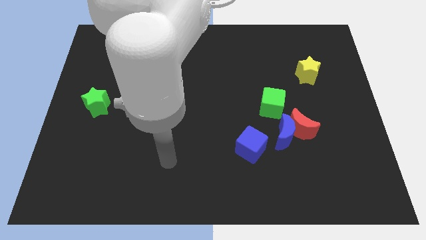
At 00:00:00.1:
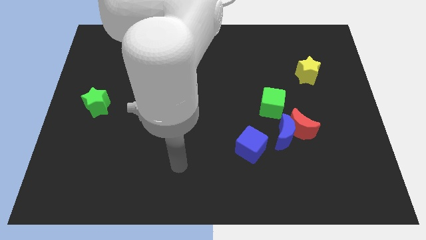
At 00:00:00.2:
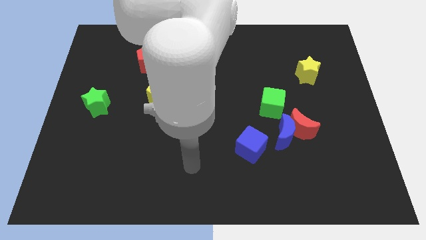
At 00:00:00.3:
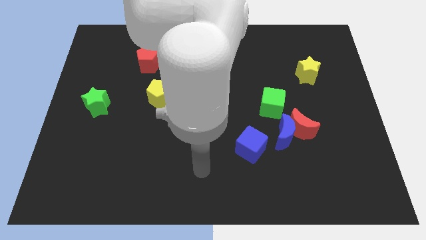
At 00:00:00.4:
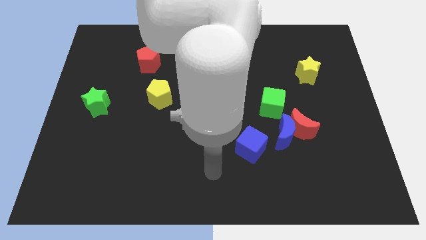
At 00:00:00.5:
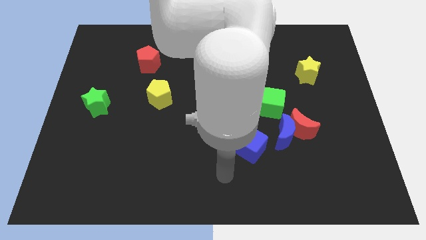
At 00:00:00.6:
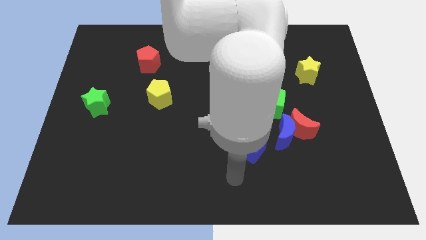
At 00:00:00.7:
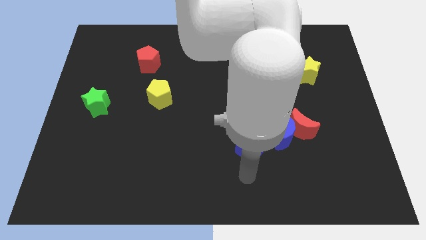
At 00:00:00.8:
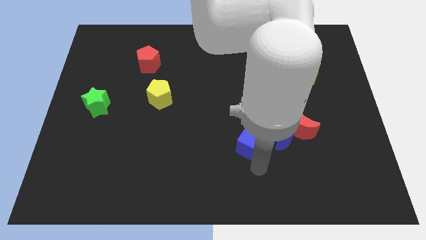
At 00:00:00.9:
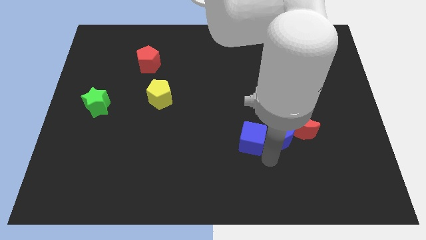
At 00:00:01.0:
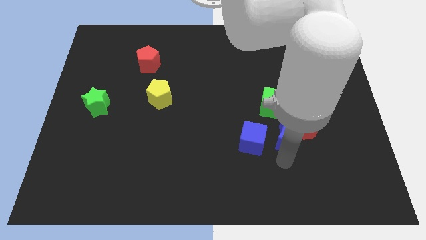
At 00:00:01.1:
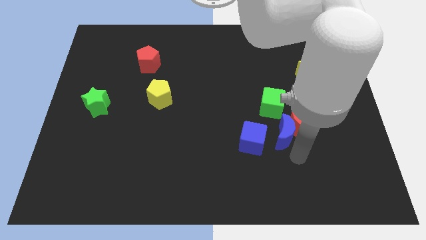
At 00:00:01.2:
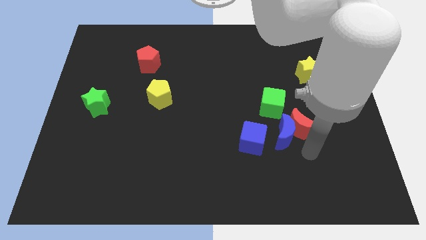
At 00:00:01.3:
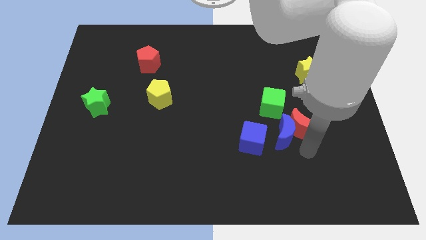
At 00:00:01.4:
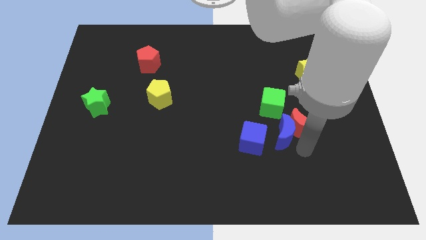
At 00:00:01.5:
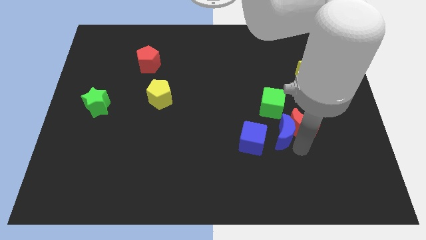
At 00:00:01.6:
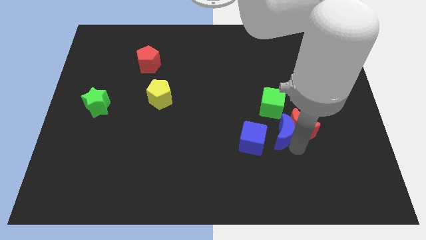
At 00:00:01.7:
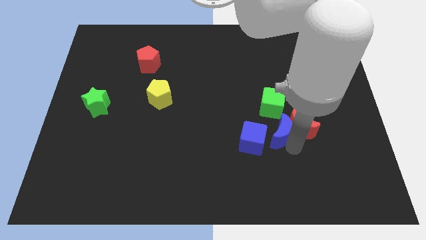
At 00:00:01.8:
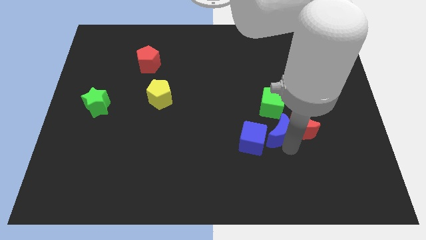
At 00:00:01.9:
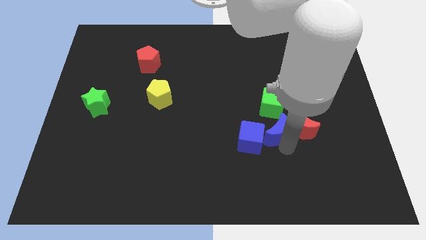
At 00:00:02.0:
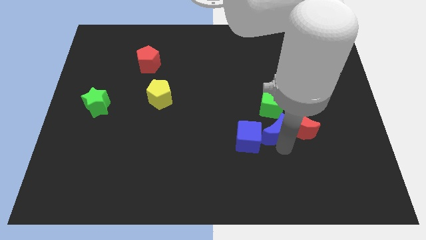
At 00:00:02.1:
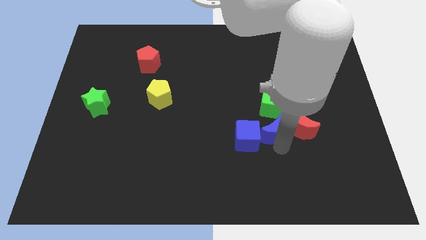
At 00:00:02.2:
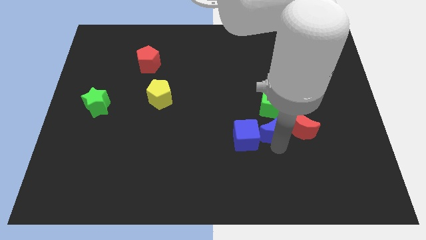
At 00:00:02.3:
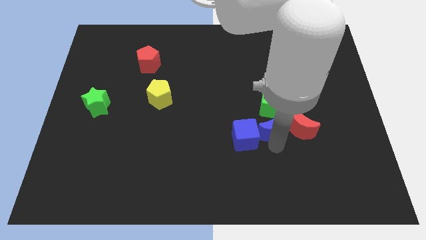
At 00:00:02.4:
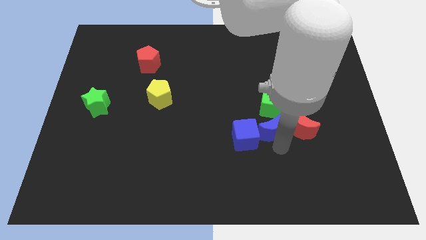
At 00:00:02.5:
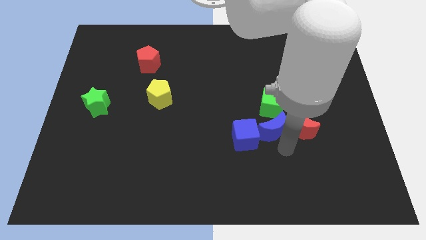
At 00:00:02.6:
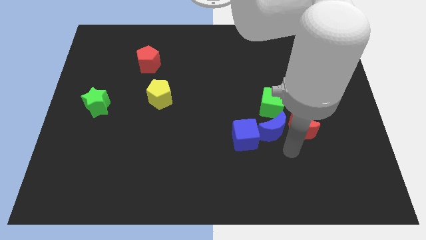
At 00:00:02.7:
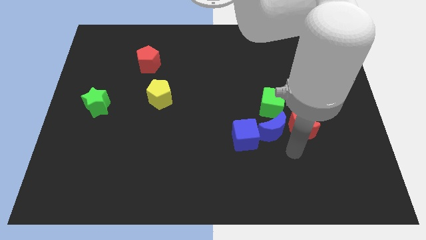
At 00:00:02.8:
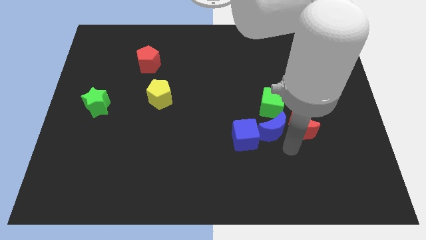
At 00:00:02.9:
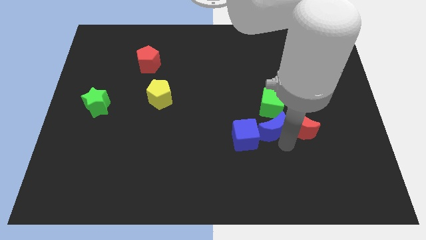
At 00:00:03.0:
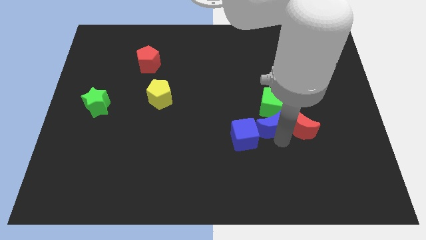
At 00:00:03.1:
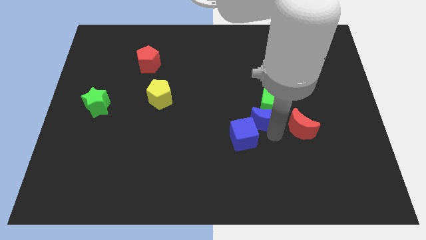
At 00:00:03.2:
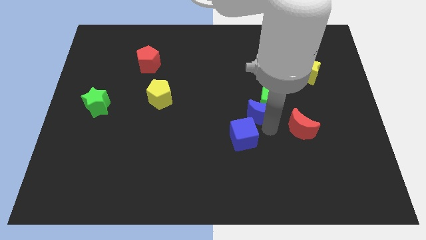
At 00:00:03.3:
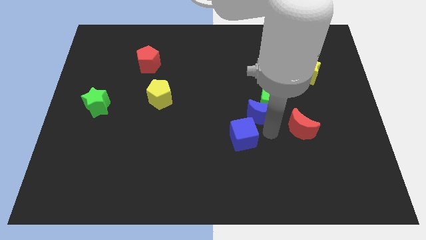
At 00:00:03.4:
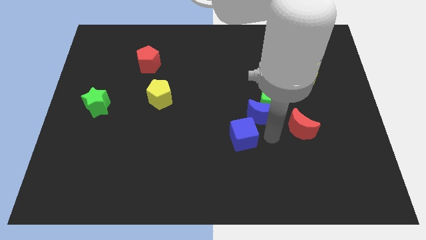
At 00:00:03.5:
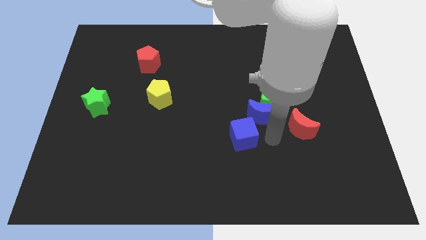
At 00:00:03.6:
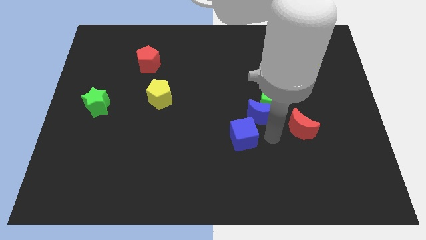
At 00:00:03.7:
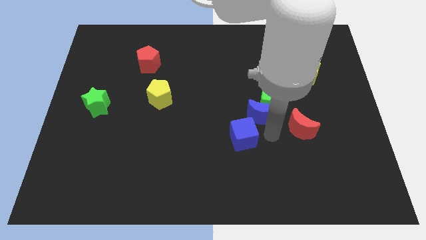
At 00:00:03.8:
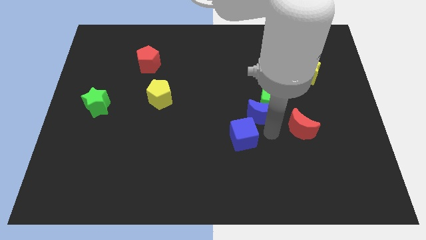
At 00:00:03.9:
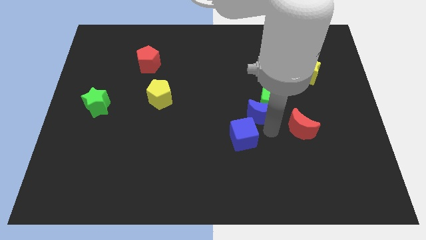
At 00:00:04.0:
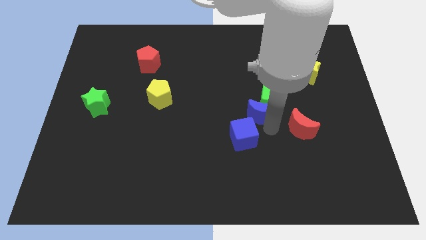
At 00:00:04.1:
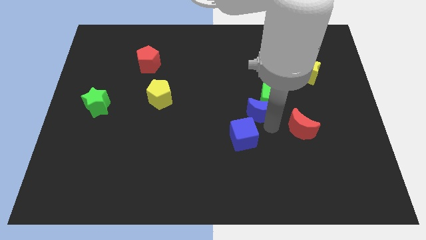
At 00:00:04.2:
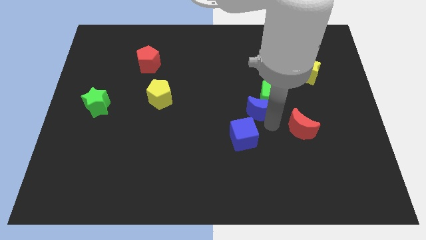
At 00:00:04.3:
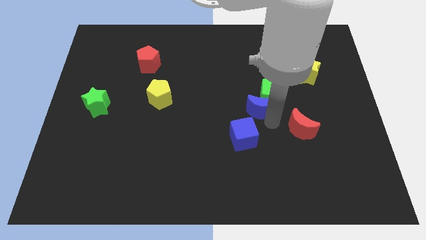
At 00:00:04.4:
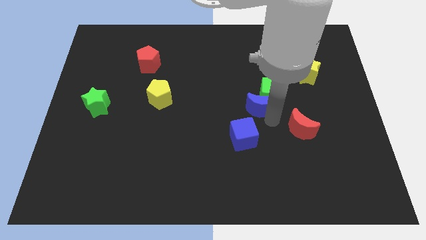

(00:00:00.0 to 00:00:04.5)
move the blue moon a little up

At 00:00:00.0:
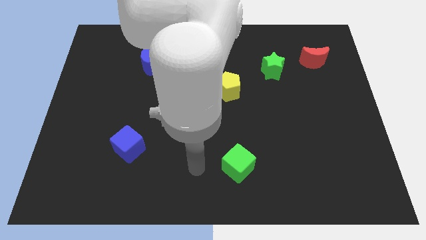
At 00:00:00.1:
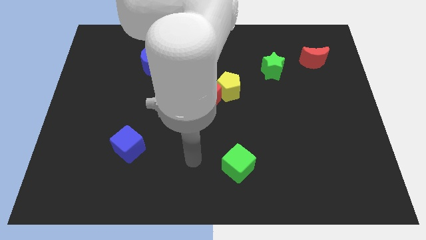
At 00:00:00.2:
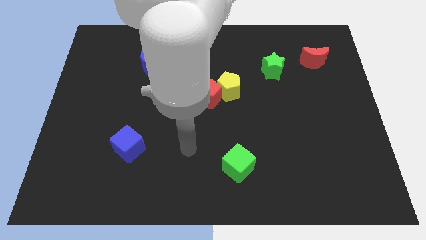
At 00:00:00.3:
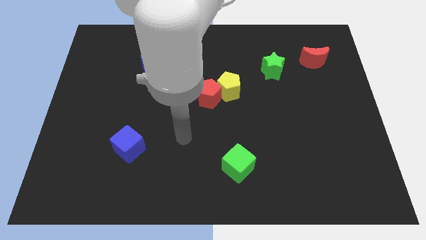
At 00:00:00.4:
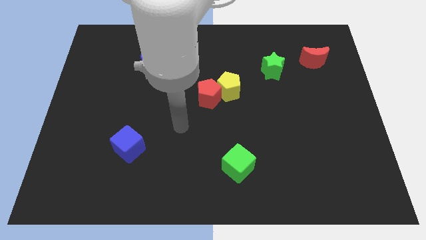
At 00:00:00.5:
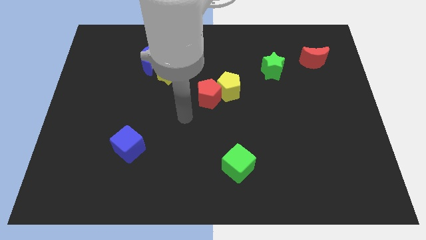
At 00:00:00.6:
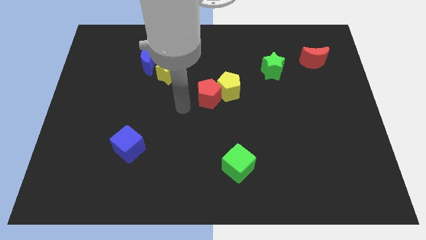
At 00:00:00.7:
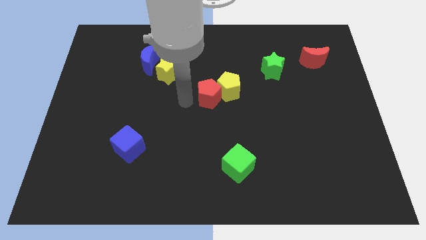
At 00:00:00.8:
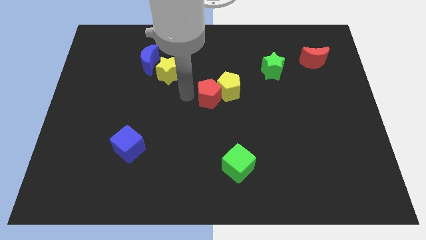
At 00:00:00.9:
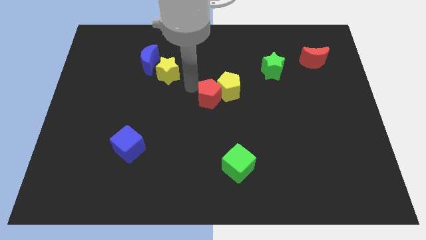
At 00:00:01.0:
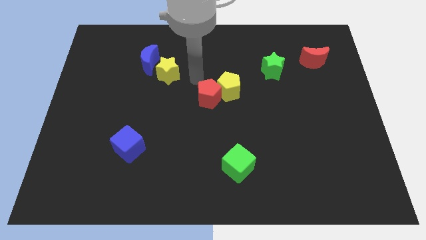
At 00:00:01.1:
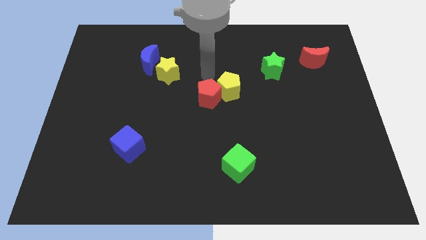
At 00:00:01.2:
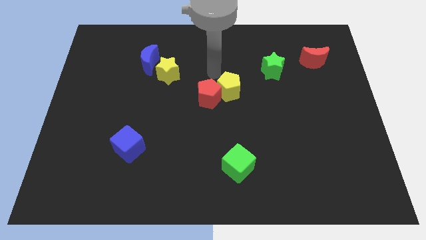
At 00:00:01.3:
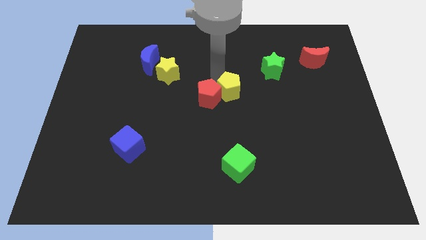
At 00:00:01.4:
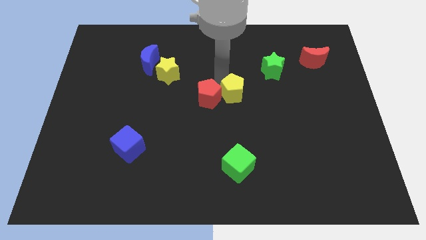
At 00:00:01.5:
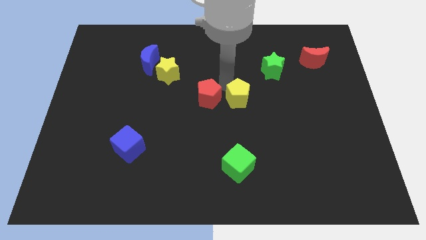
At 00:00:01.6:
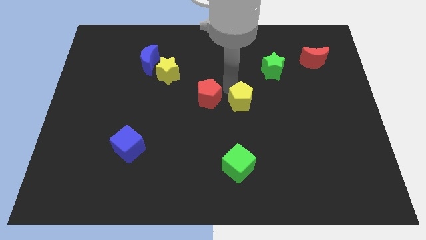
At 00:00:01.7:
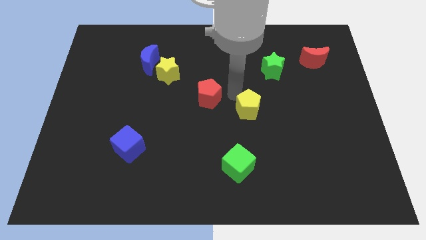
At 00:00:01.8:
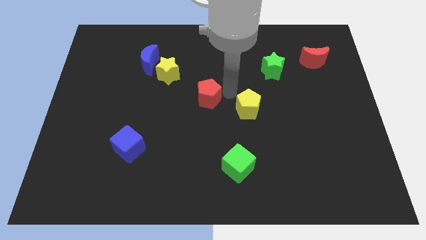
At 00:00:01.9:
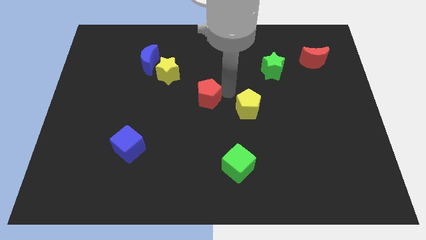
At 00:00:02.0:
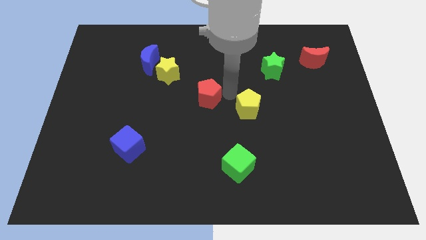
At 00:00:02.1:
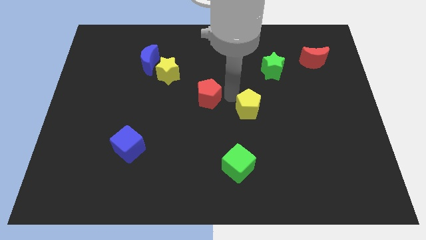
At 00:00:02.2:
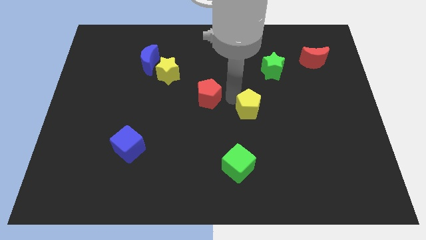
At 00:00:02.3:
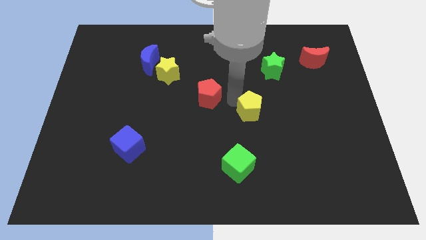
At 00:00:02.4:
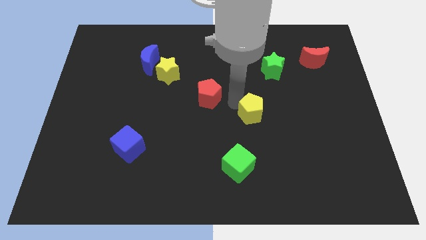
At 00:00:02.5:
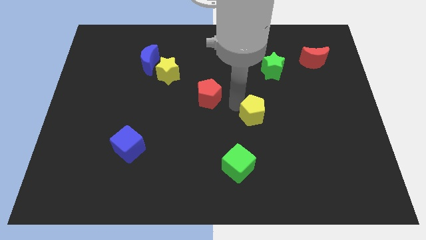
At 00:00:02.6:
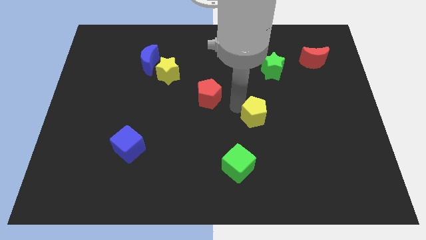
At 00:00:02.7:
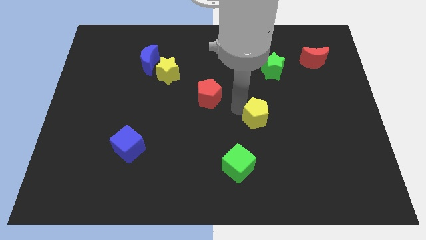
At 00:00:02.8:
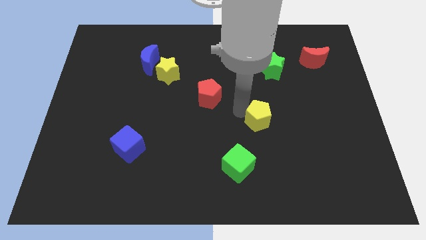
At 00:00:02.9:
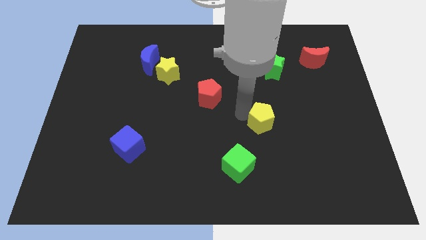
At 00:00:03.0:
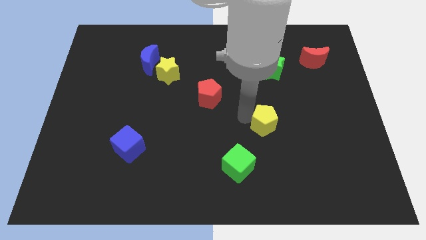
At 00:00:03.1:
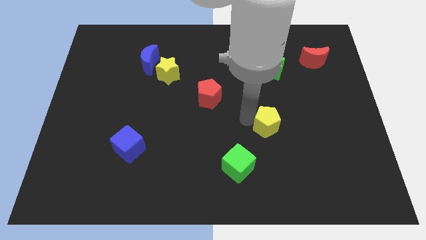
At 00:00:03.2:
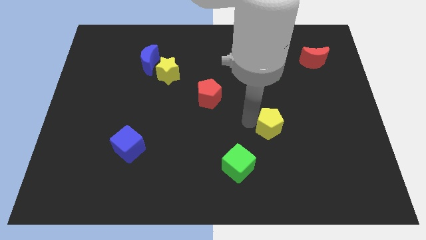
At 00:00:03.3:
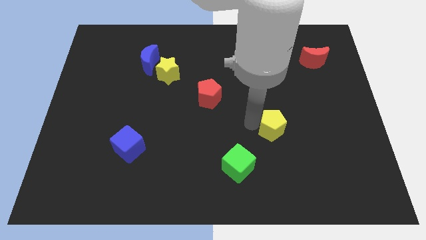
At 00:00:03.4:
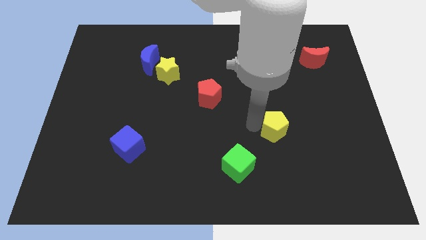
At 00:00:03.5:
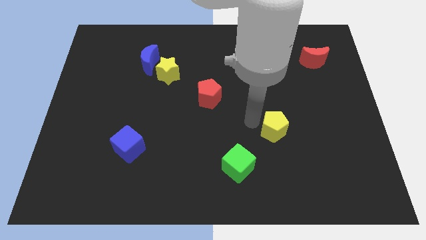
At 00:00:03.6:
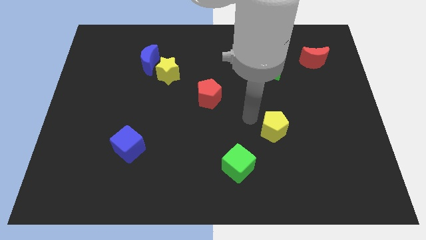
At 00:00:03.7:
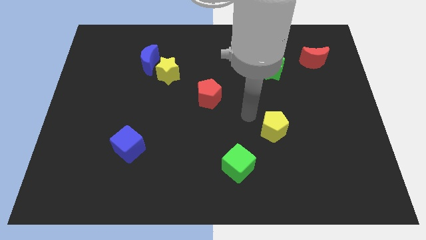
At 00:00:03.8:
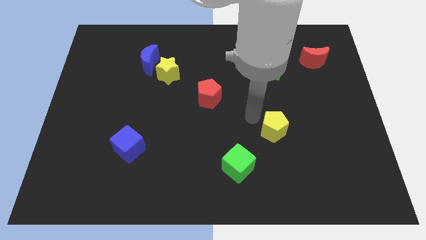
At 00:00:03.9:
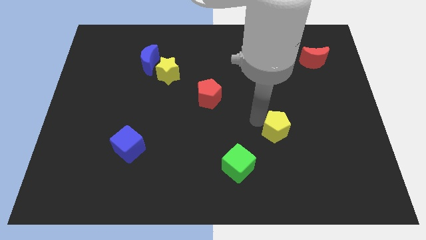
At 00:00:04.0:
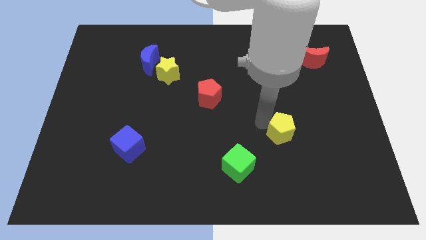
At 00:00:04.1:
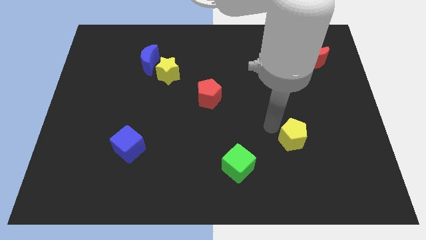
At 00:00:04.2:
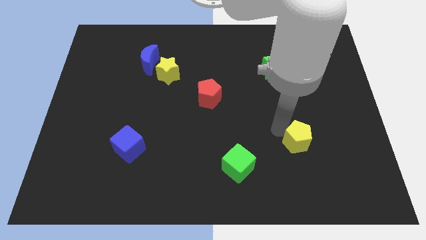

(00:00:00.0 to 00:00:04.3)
move the yellow pentagon downwards and right
